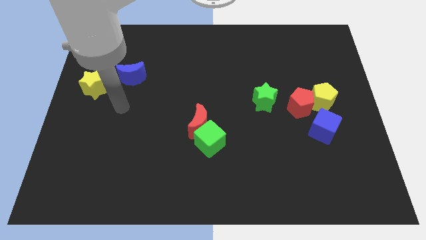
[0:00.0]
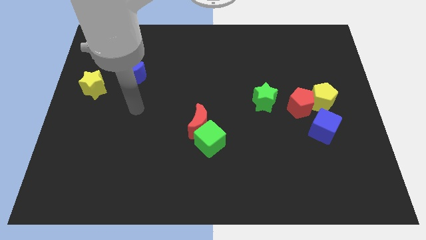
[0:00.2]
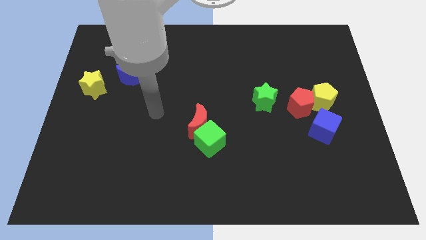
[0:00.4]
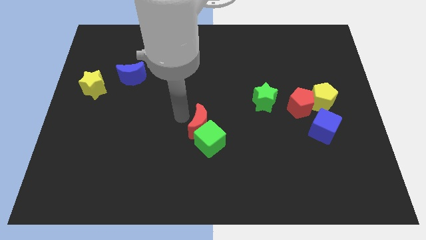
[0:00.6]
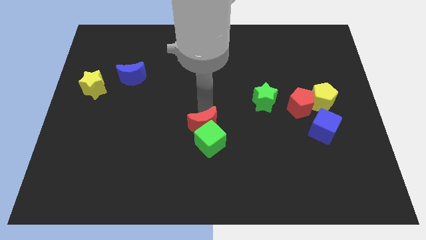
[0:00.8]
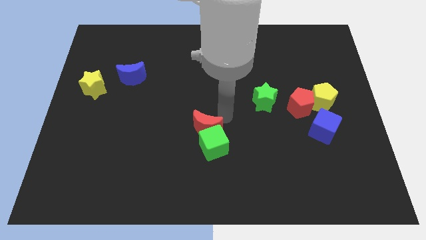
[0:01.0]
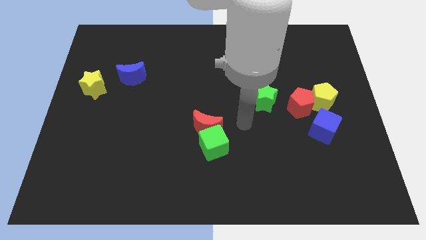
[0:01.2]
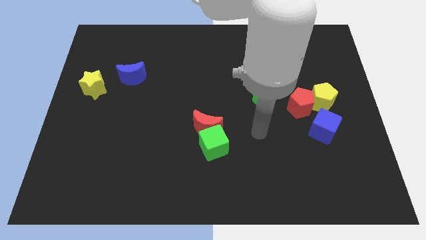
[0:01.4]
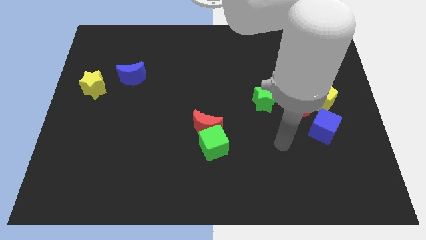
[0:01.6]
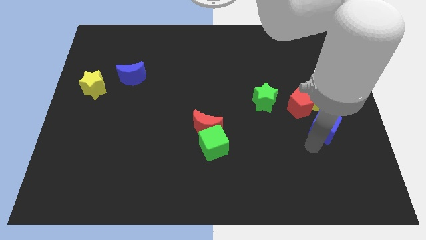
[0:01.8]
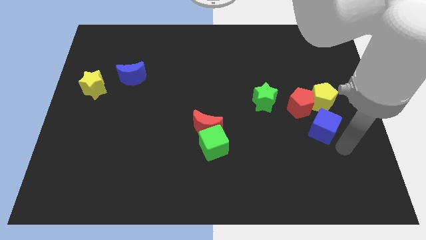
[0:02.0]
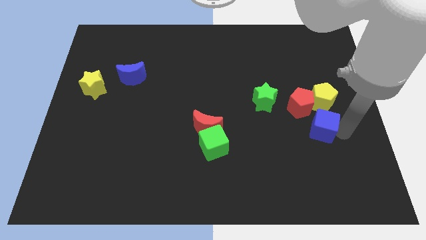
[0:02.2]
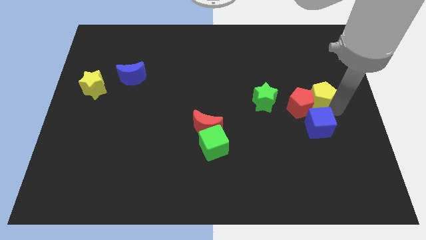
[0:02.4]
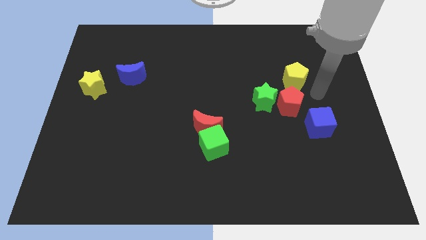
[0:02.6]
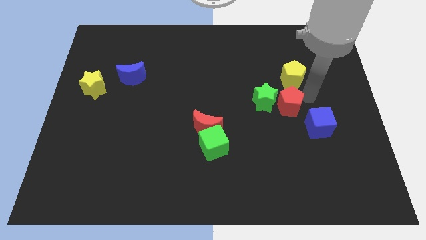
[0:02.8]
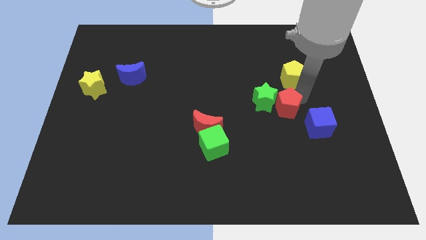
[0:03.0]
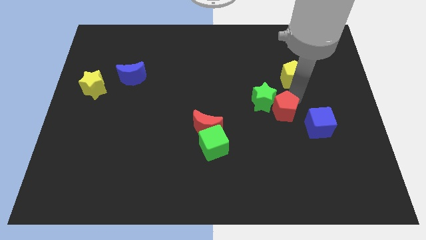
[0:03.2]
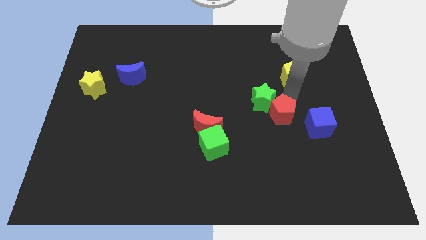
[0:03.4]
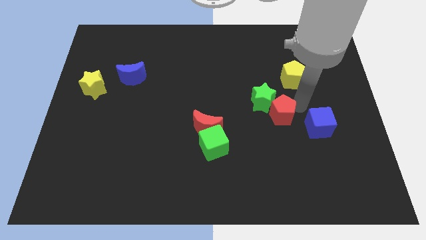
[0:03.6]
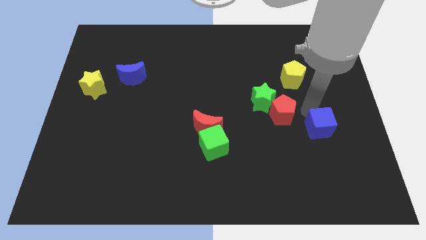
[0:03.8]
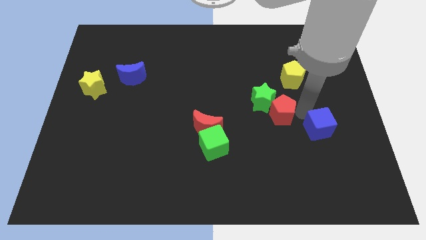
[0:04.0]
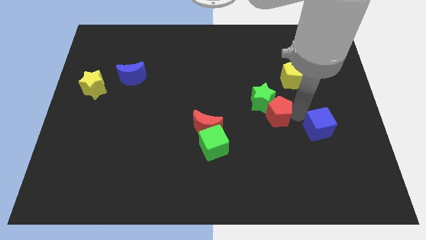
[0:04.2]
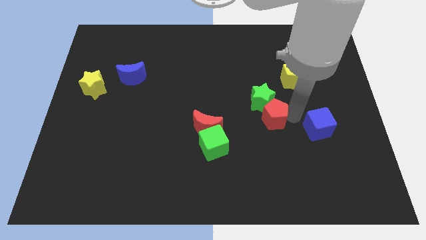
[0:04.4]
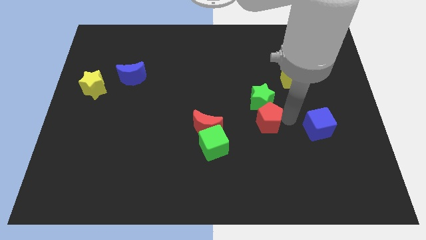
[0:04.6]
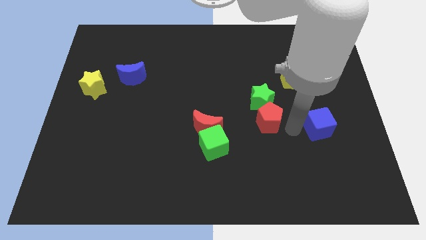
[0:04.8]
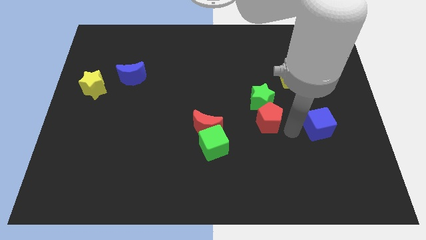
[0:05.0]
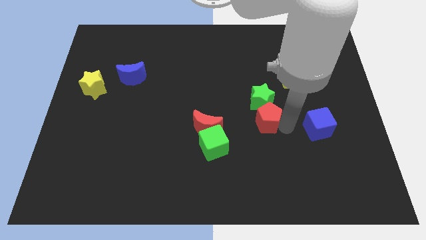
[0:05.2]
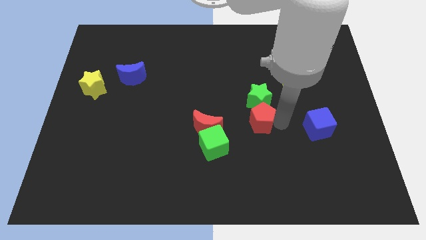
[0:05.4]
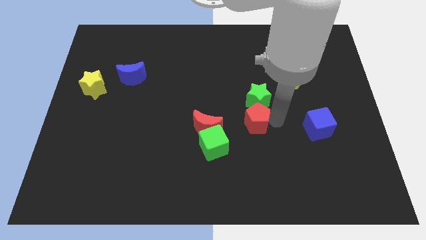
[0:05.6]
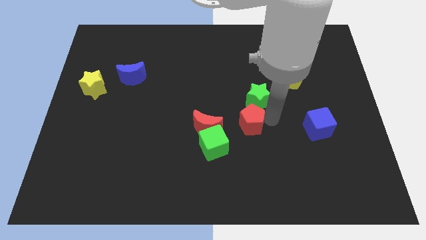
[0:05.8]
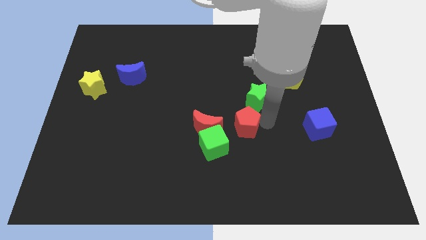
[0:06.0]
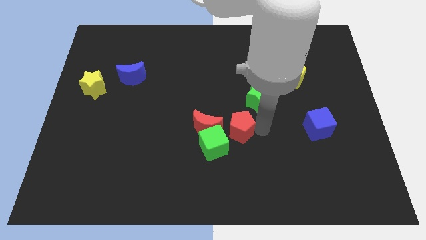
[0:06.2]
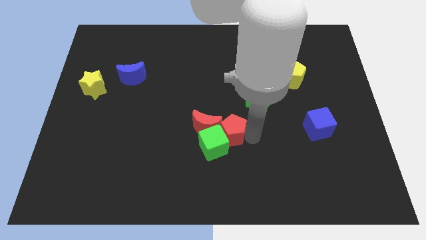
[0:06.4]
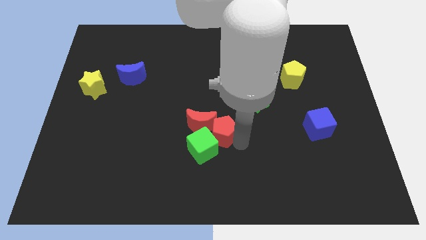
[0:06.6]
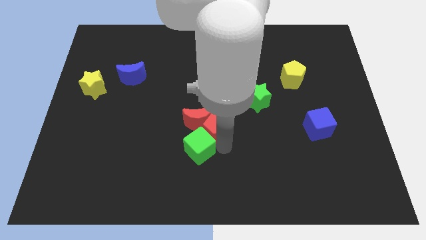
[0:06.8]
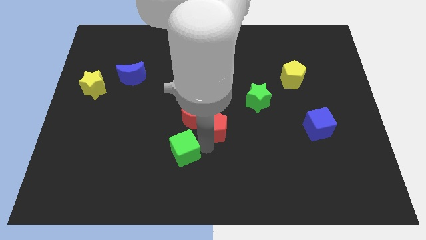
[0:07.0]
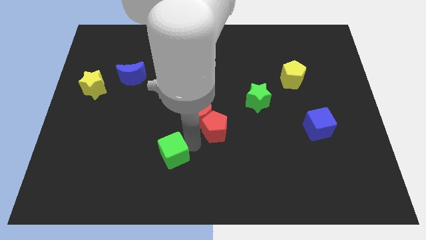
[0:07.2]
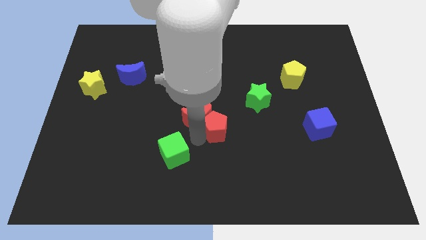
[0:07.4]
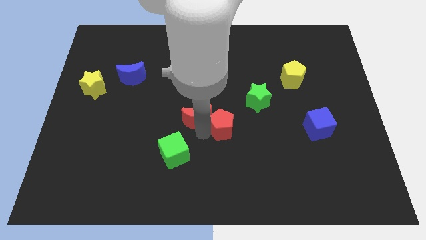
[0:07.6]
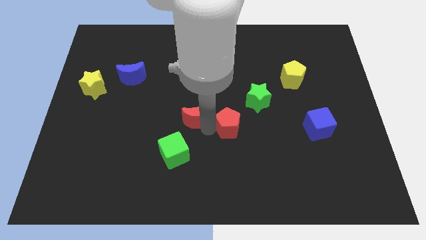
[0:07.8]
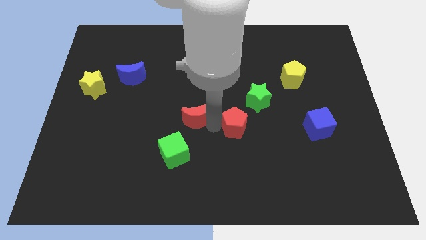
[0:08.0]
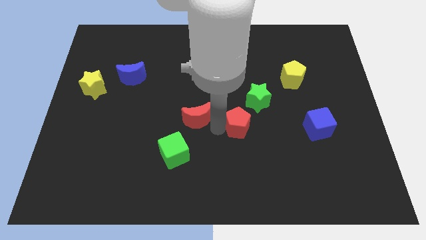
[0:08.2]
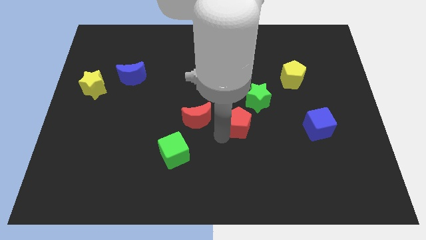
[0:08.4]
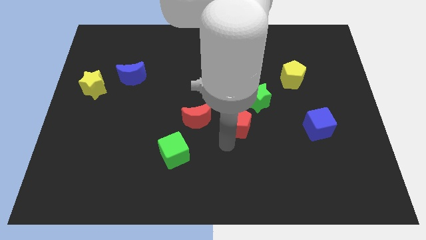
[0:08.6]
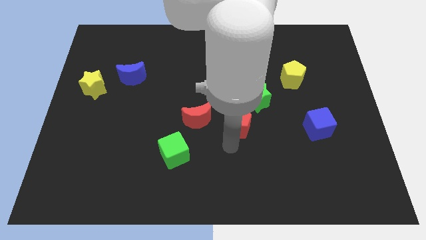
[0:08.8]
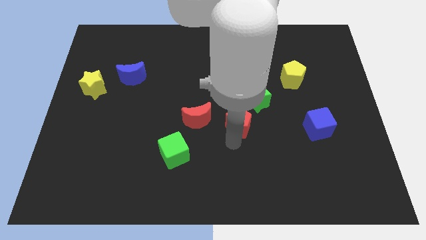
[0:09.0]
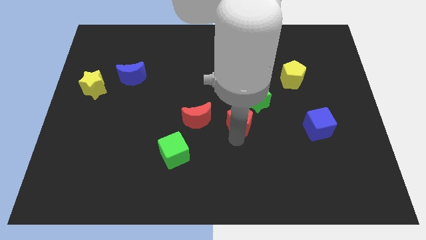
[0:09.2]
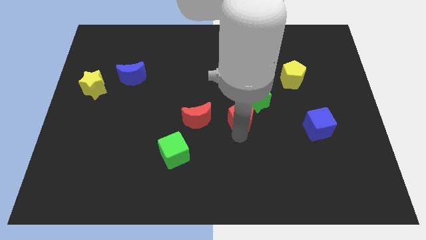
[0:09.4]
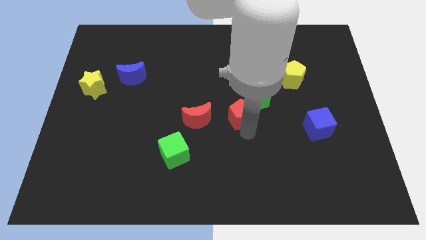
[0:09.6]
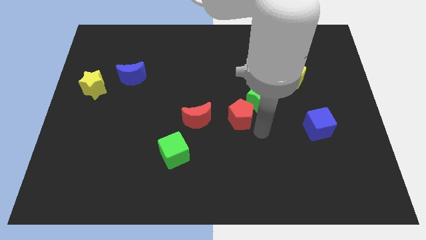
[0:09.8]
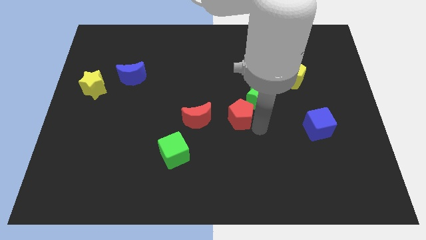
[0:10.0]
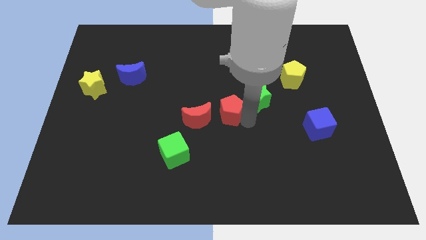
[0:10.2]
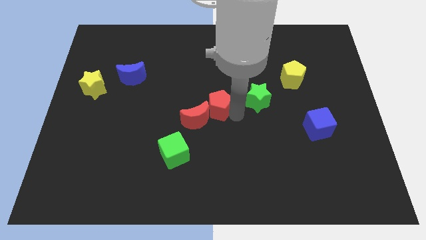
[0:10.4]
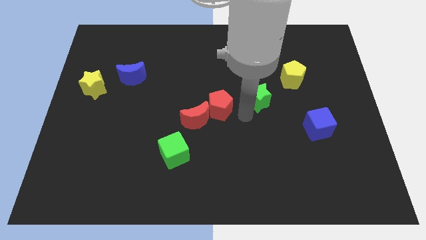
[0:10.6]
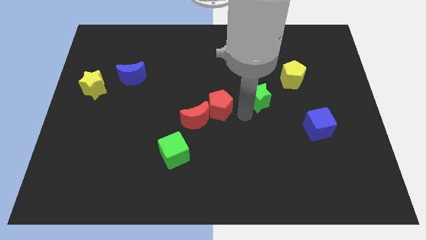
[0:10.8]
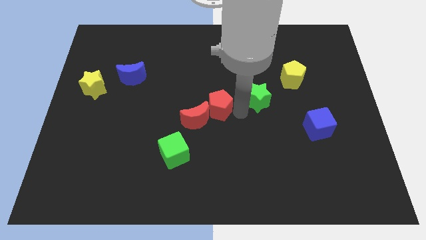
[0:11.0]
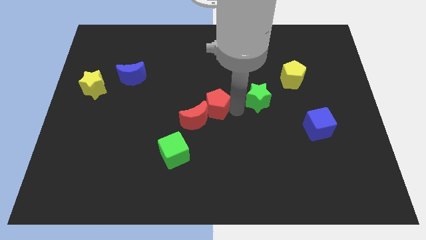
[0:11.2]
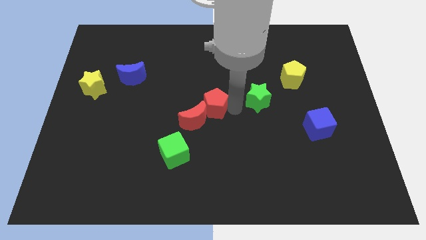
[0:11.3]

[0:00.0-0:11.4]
move the red pentagon to the left

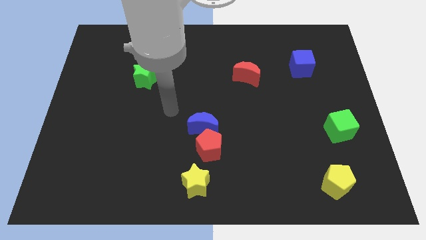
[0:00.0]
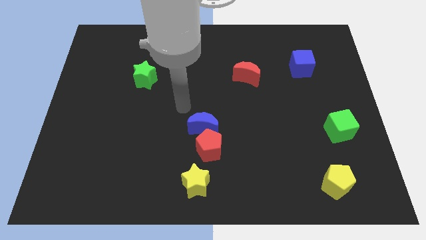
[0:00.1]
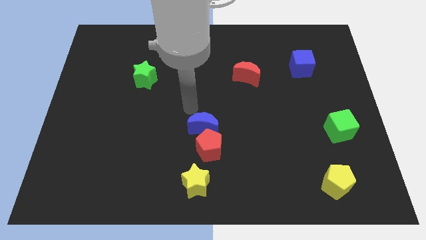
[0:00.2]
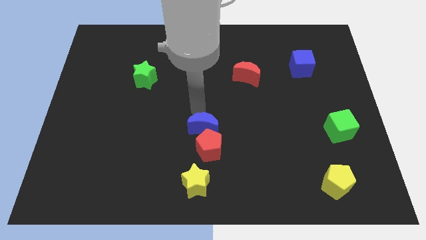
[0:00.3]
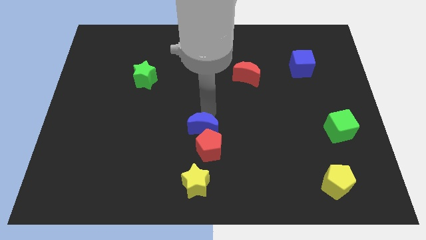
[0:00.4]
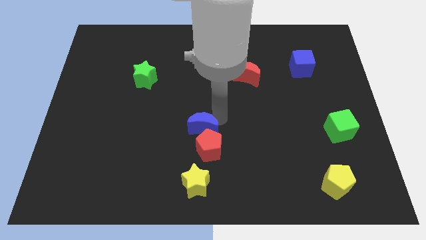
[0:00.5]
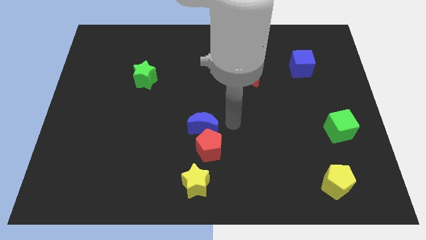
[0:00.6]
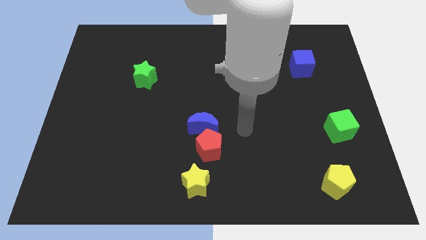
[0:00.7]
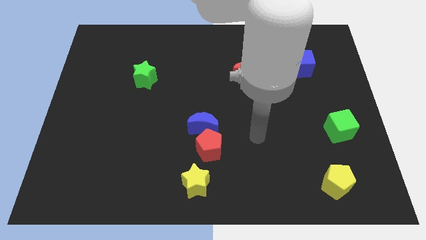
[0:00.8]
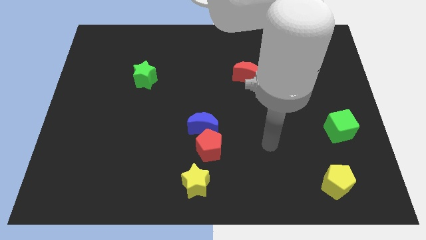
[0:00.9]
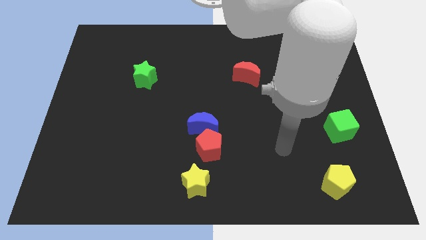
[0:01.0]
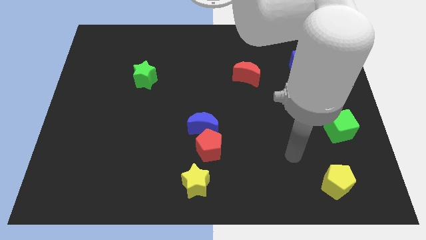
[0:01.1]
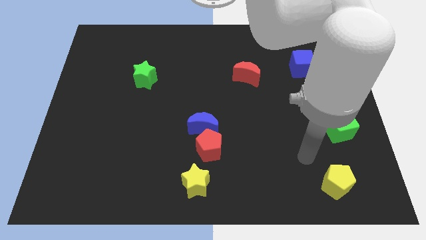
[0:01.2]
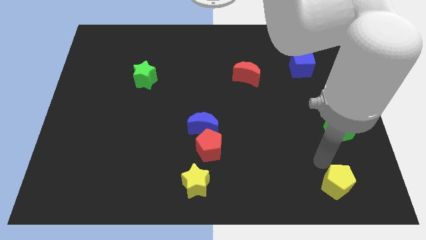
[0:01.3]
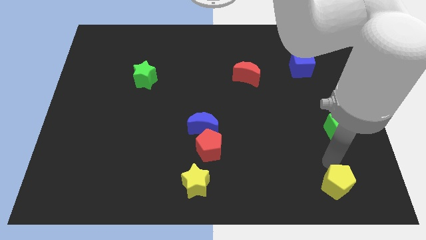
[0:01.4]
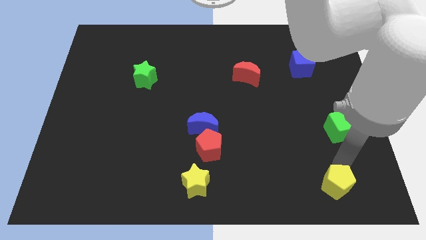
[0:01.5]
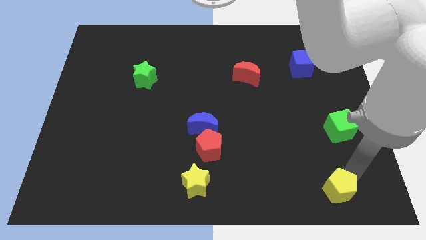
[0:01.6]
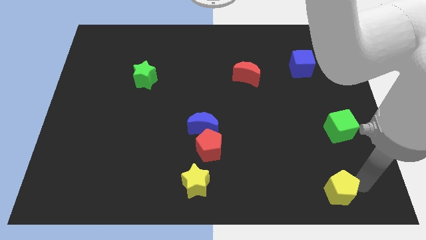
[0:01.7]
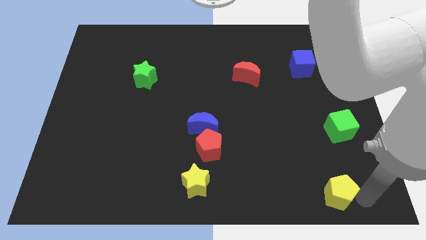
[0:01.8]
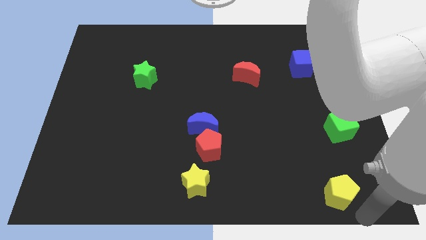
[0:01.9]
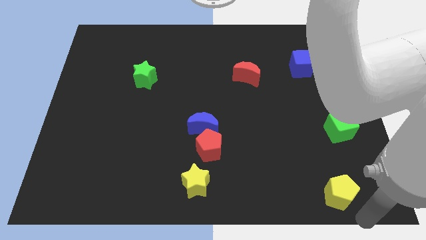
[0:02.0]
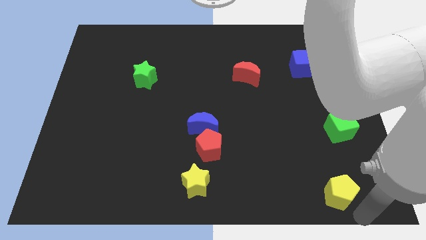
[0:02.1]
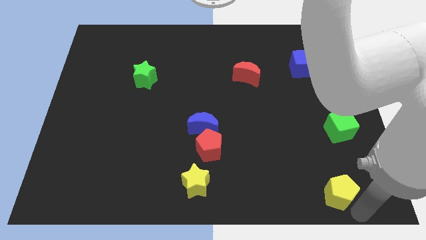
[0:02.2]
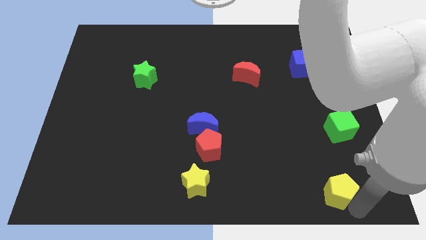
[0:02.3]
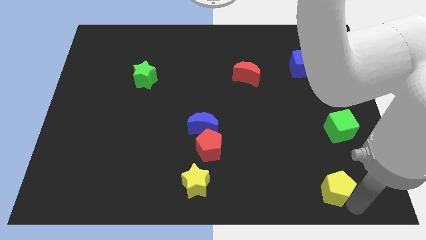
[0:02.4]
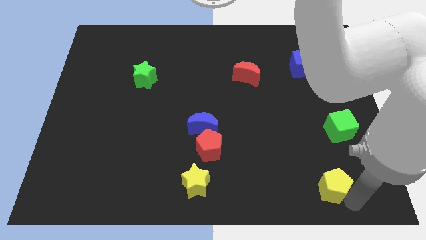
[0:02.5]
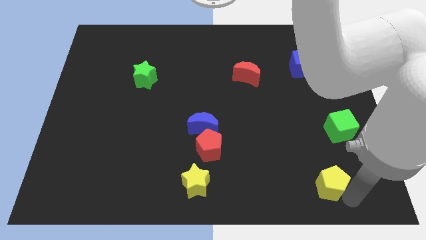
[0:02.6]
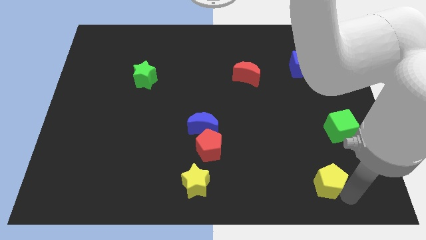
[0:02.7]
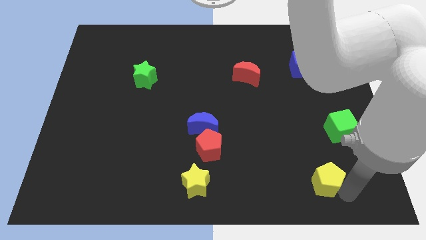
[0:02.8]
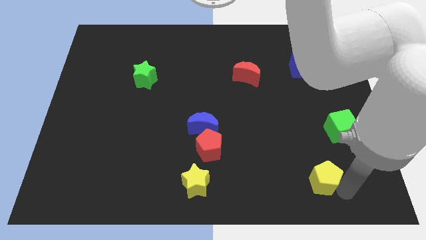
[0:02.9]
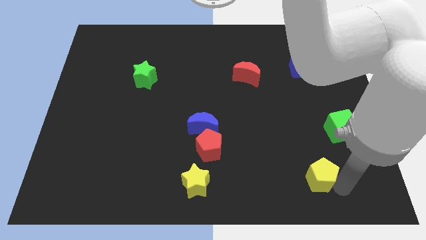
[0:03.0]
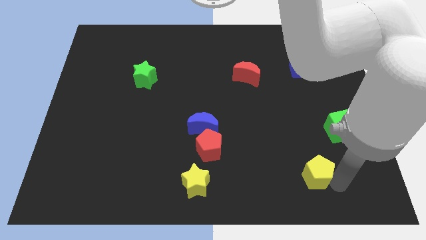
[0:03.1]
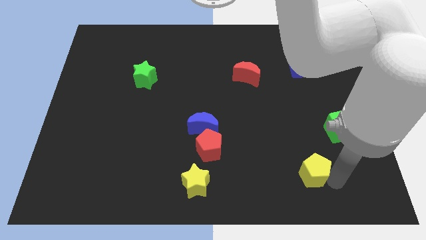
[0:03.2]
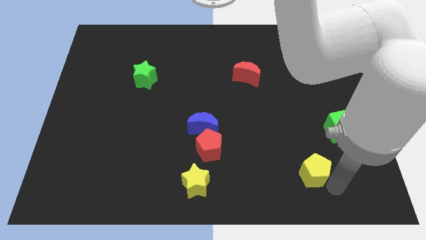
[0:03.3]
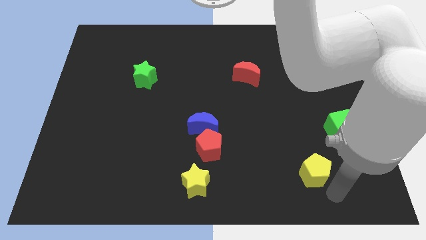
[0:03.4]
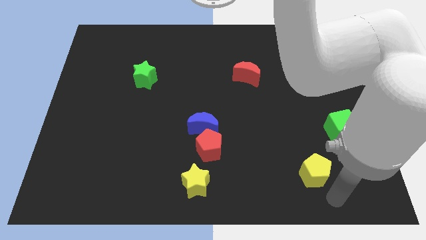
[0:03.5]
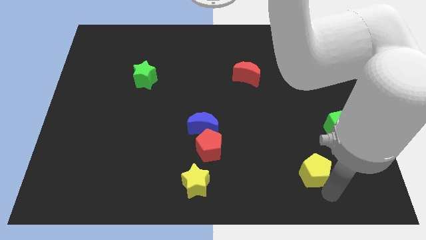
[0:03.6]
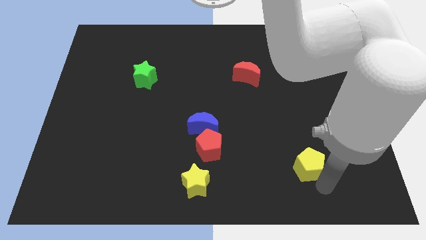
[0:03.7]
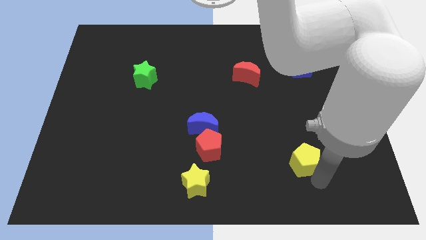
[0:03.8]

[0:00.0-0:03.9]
slightly slide the yellow pentagon up and then left
